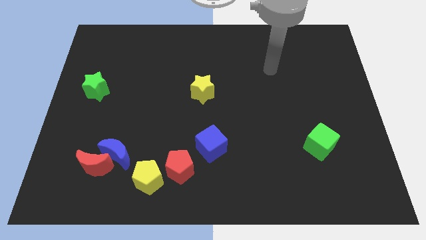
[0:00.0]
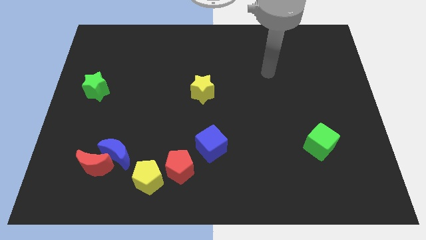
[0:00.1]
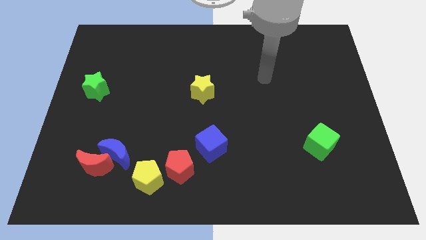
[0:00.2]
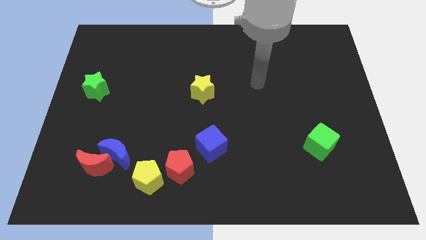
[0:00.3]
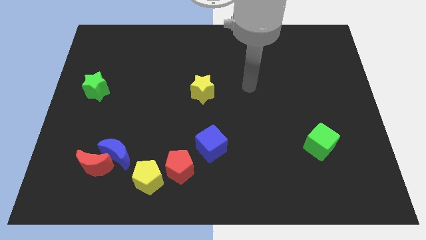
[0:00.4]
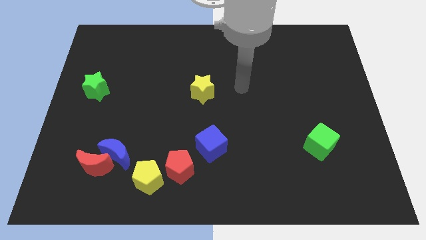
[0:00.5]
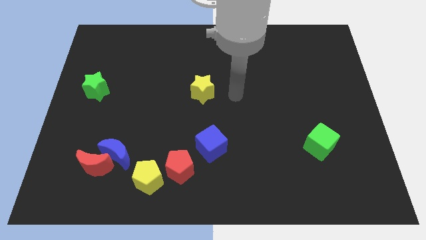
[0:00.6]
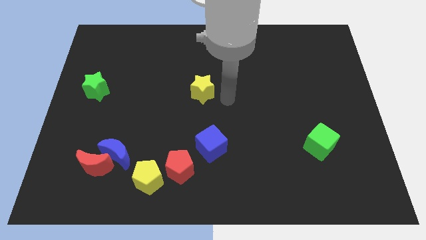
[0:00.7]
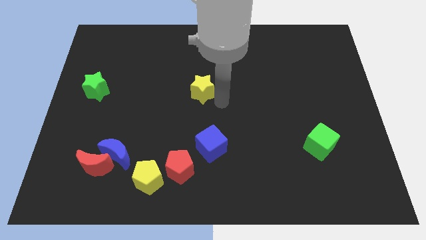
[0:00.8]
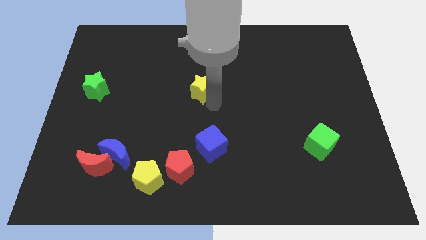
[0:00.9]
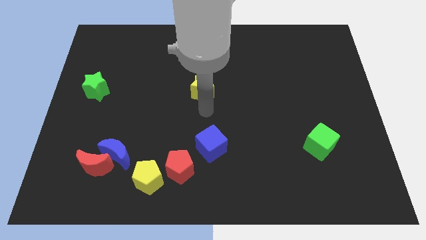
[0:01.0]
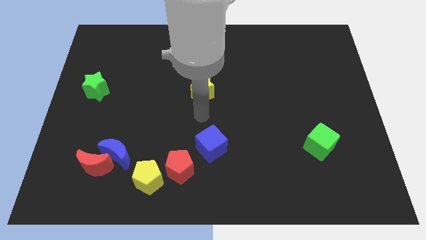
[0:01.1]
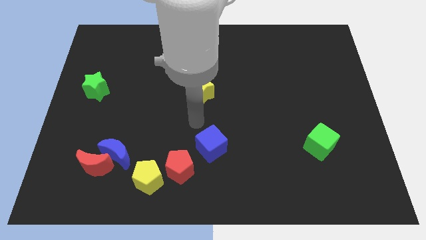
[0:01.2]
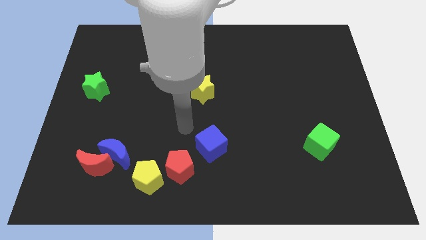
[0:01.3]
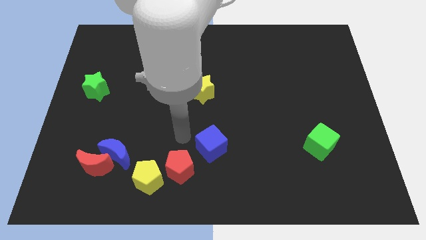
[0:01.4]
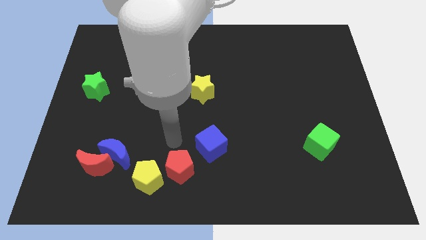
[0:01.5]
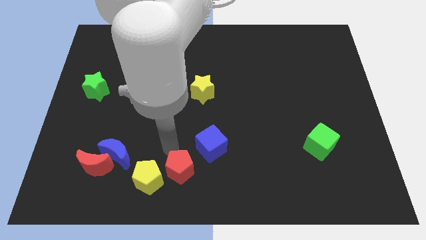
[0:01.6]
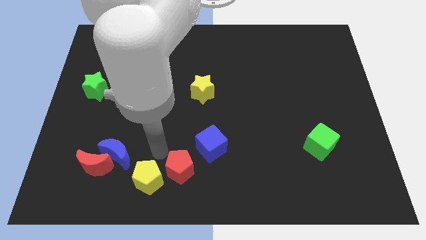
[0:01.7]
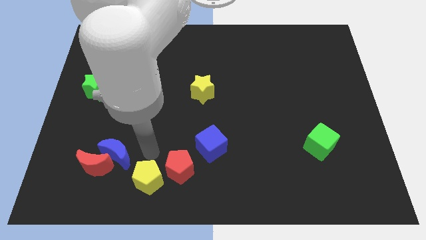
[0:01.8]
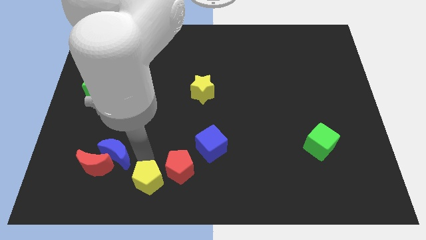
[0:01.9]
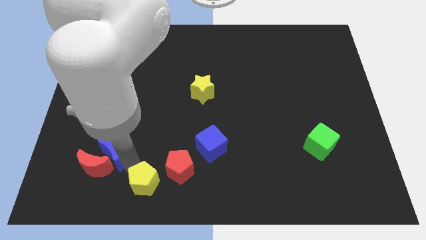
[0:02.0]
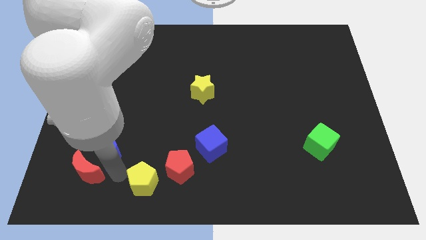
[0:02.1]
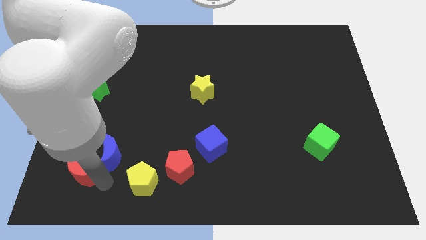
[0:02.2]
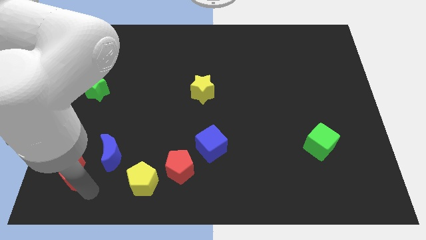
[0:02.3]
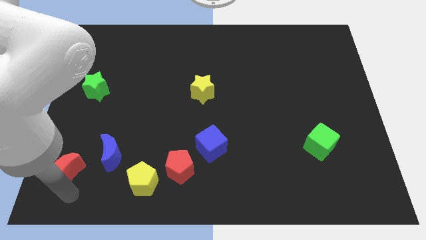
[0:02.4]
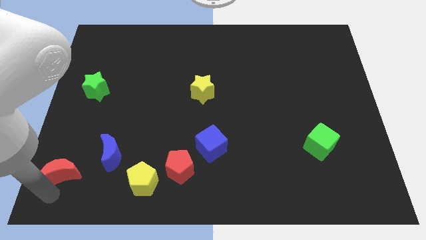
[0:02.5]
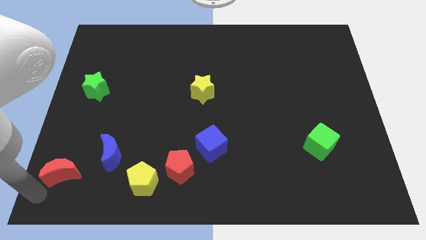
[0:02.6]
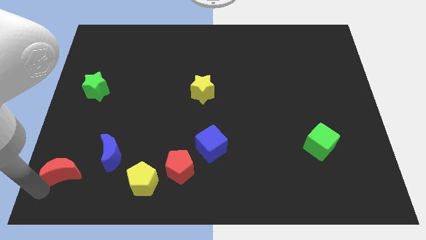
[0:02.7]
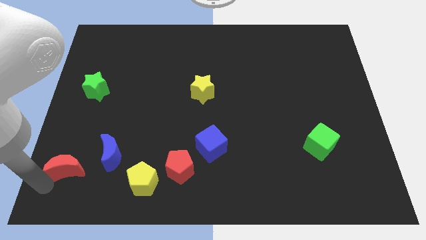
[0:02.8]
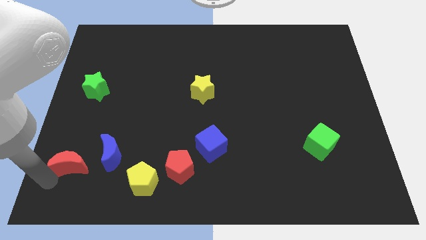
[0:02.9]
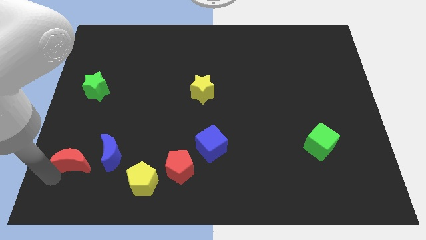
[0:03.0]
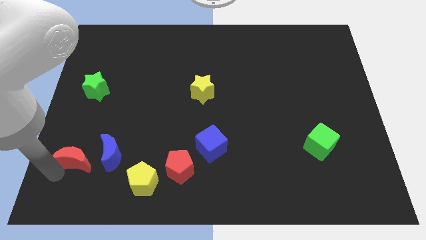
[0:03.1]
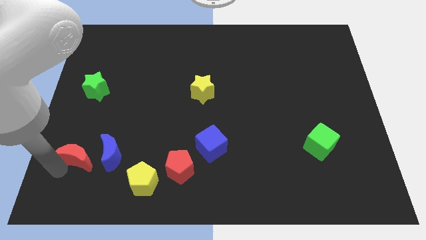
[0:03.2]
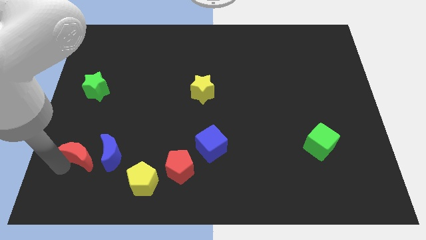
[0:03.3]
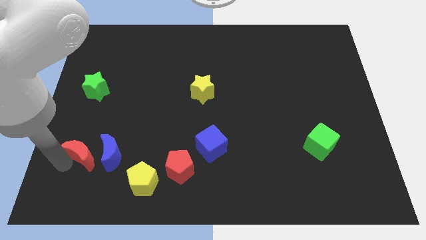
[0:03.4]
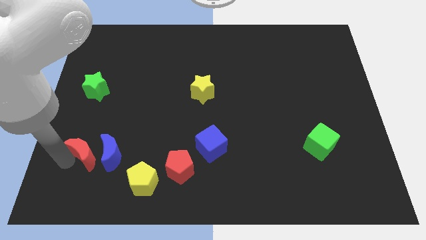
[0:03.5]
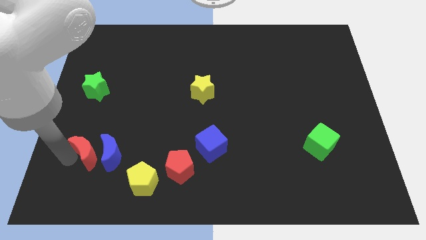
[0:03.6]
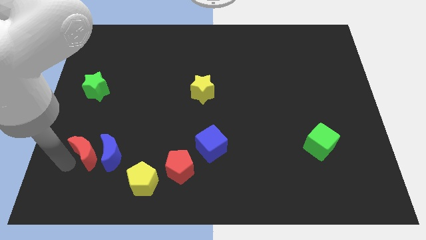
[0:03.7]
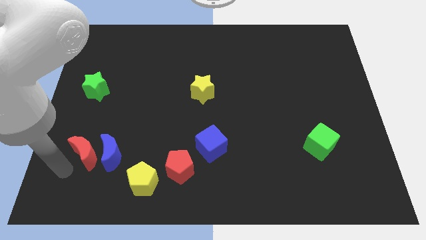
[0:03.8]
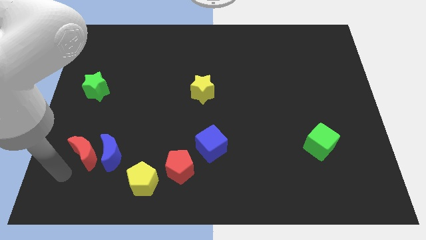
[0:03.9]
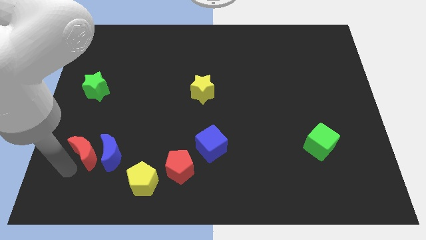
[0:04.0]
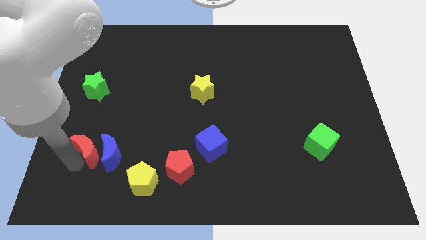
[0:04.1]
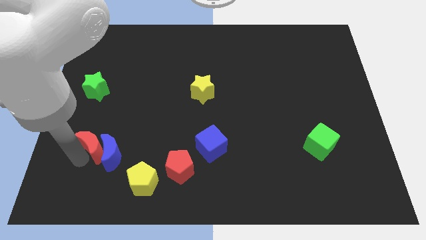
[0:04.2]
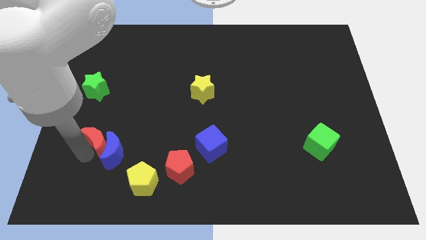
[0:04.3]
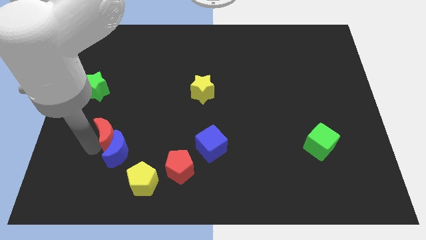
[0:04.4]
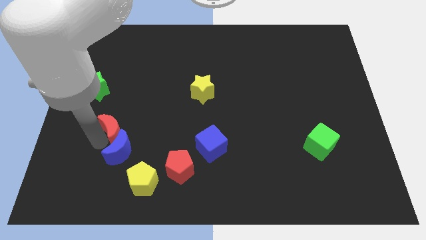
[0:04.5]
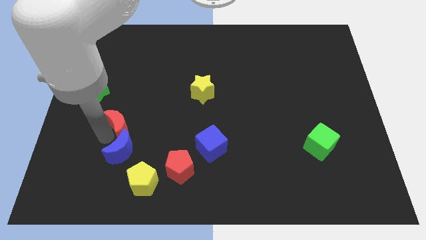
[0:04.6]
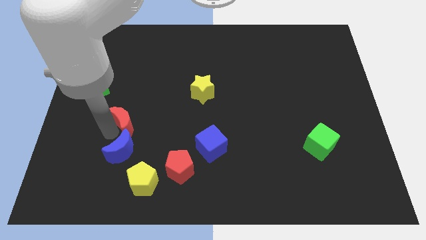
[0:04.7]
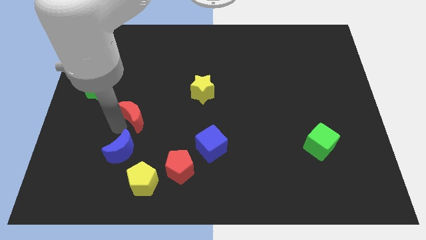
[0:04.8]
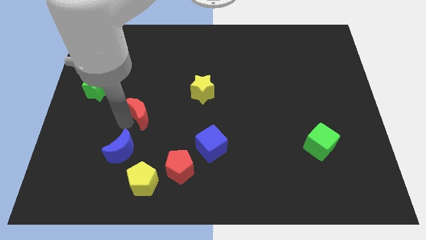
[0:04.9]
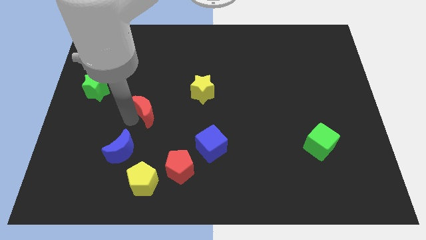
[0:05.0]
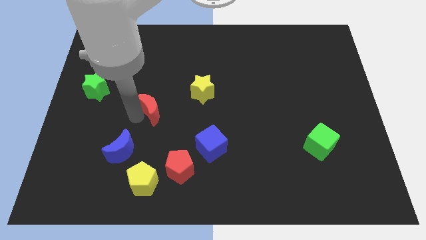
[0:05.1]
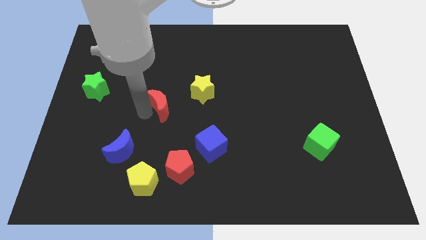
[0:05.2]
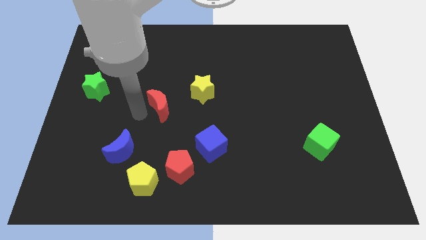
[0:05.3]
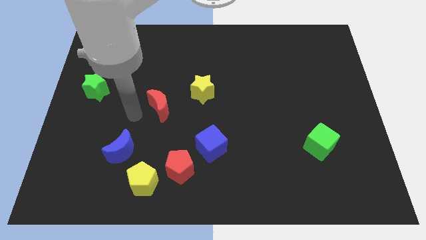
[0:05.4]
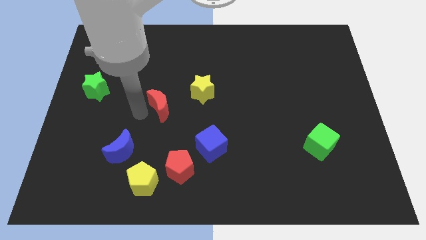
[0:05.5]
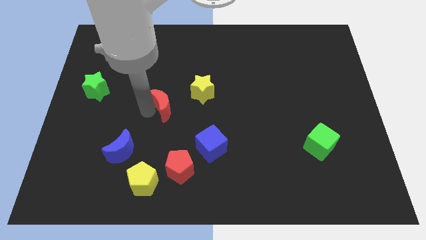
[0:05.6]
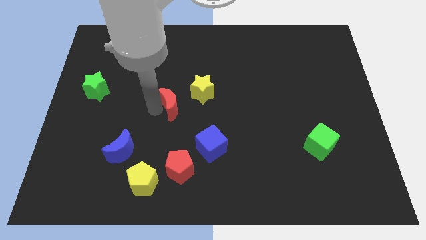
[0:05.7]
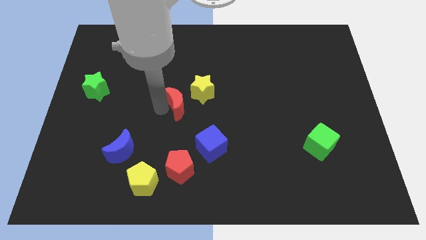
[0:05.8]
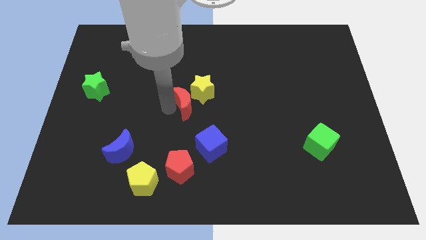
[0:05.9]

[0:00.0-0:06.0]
move the red moon to the yellow star

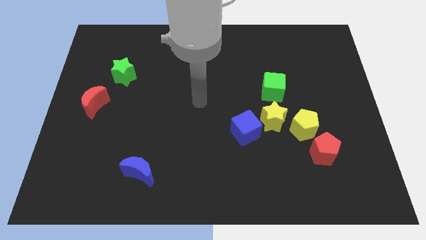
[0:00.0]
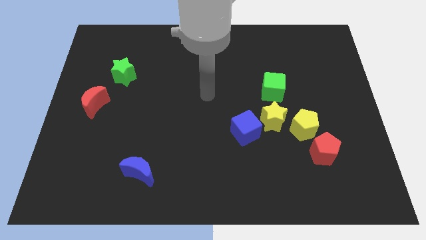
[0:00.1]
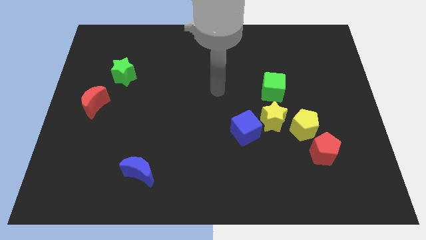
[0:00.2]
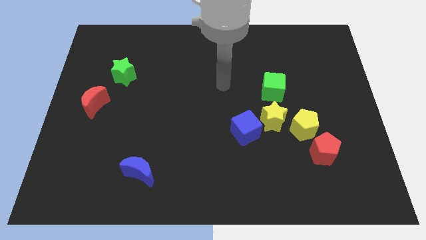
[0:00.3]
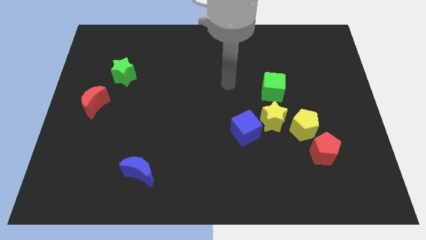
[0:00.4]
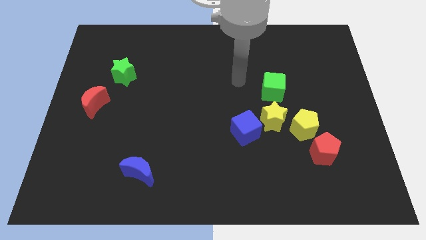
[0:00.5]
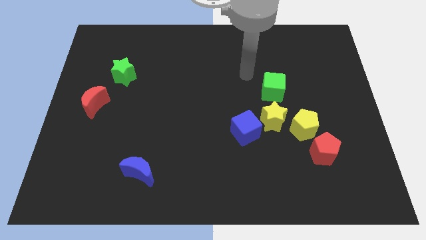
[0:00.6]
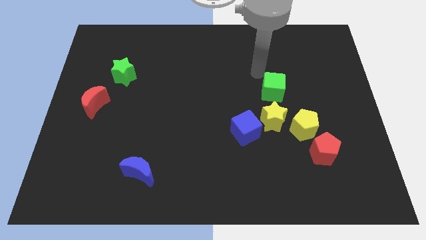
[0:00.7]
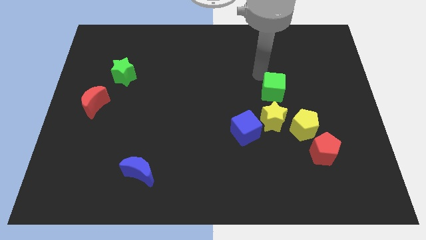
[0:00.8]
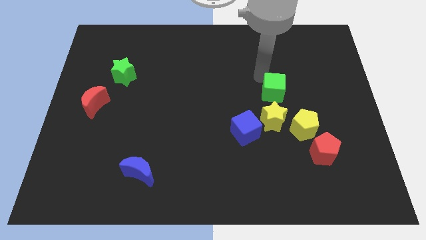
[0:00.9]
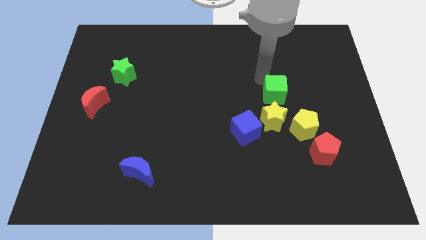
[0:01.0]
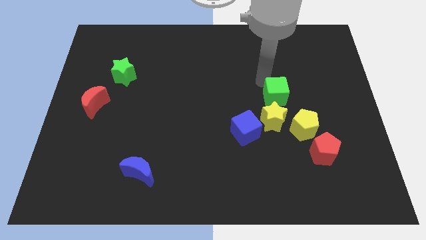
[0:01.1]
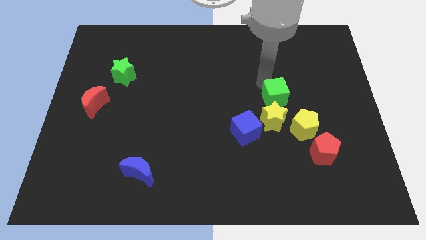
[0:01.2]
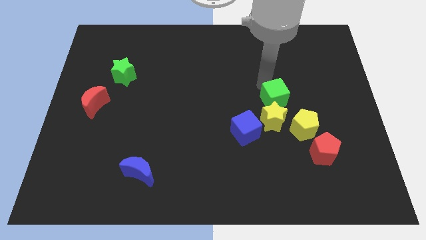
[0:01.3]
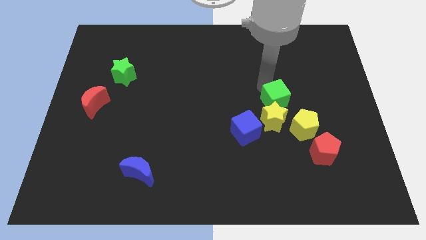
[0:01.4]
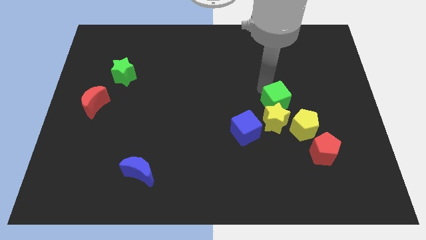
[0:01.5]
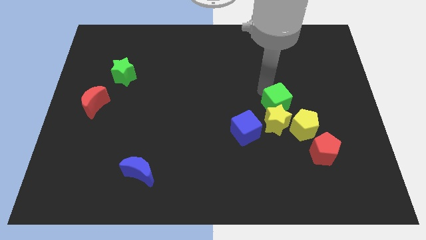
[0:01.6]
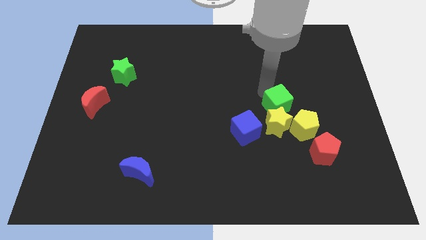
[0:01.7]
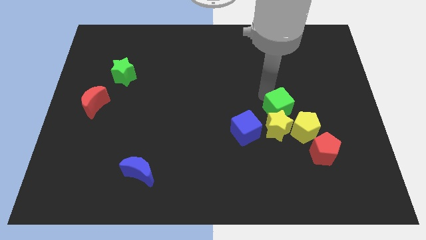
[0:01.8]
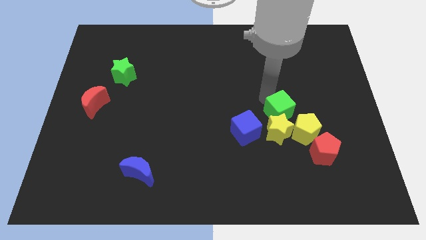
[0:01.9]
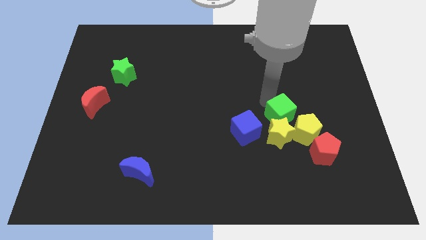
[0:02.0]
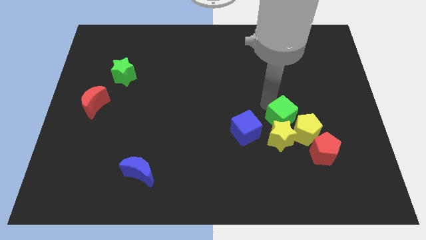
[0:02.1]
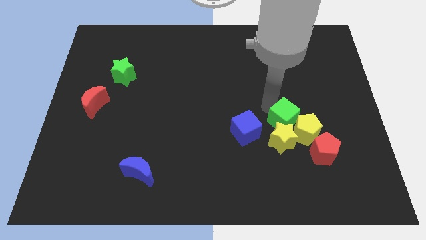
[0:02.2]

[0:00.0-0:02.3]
slide the green cube towards the yellow pentagon
